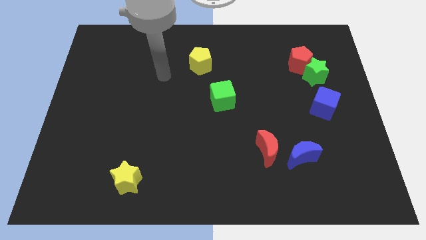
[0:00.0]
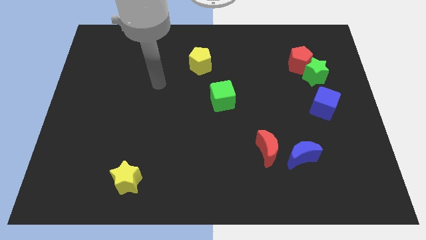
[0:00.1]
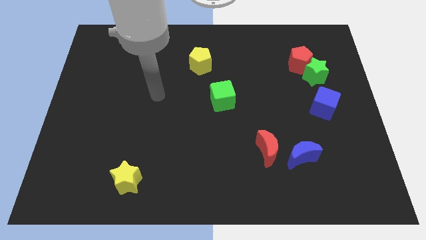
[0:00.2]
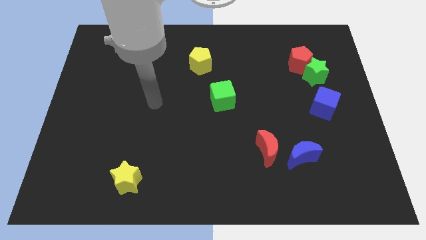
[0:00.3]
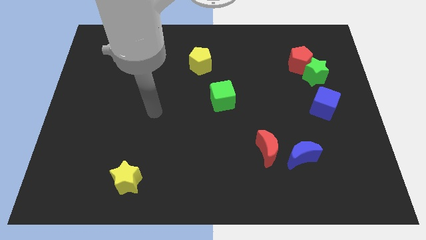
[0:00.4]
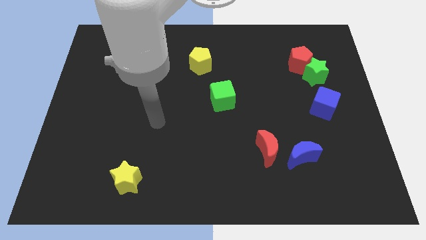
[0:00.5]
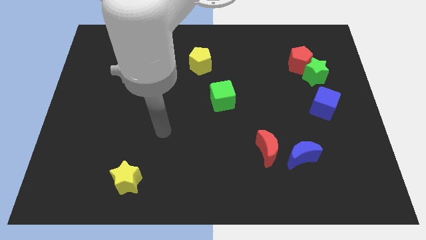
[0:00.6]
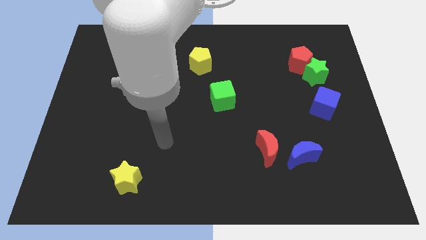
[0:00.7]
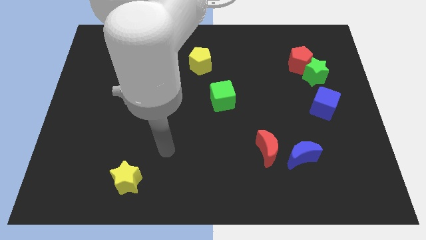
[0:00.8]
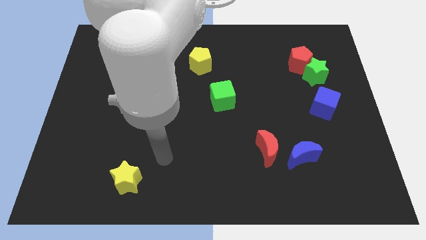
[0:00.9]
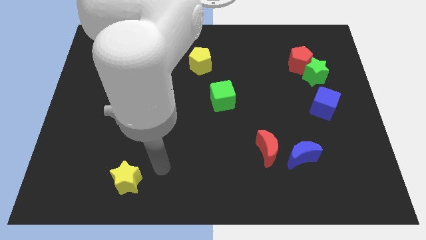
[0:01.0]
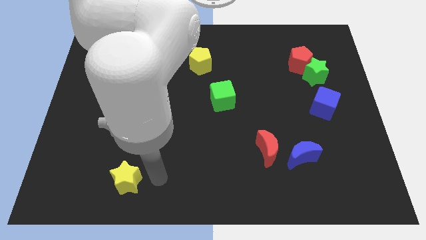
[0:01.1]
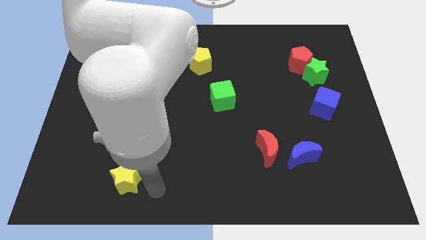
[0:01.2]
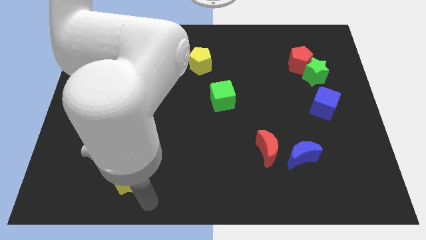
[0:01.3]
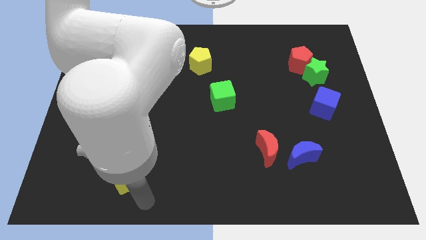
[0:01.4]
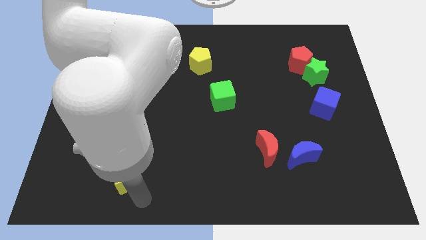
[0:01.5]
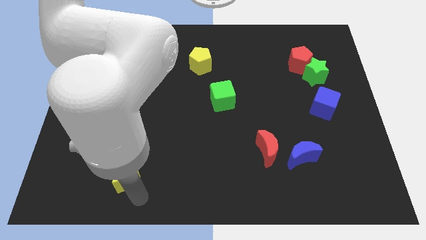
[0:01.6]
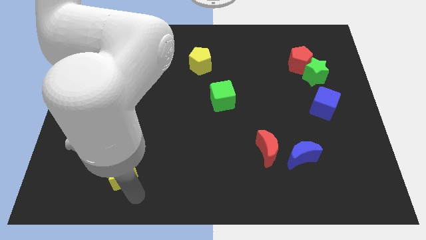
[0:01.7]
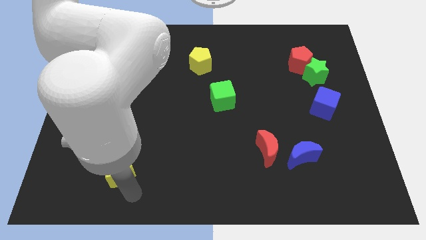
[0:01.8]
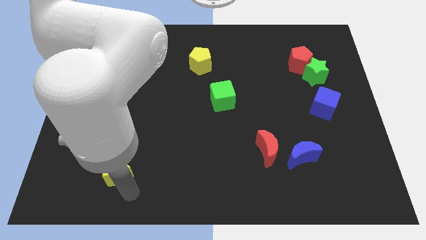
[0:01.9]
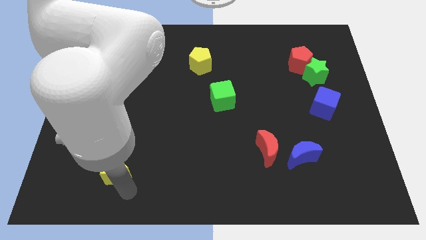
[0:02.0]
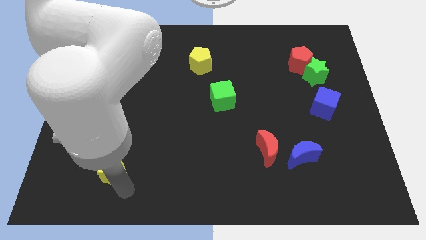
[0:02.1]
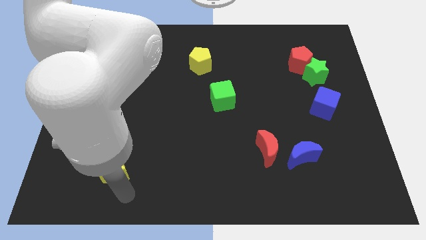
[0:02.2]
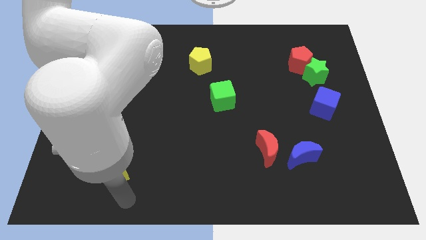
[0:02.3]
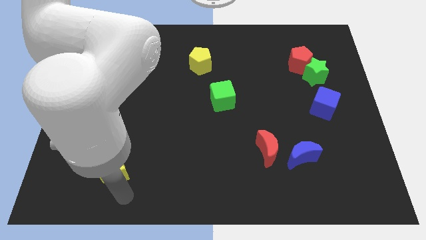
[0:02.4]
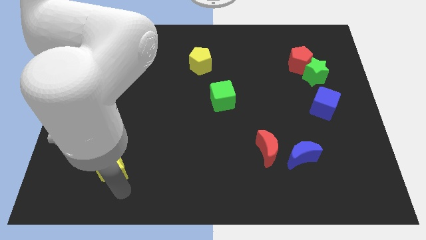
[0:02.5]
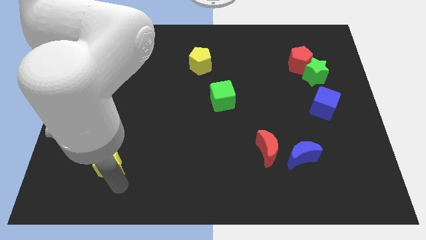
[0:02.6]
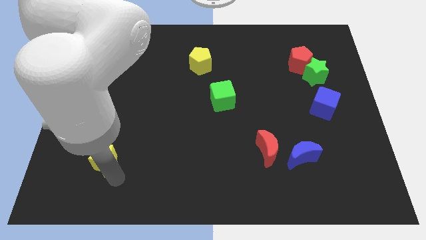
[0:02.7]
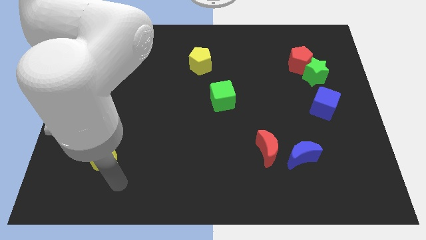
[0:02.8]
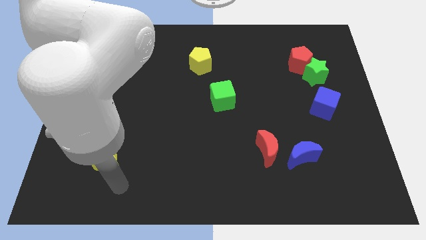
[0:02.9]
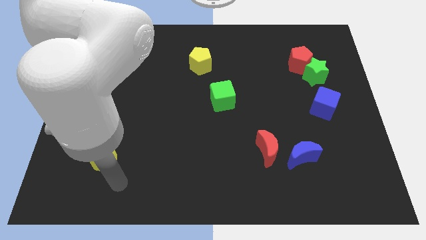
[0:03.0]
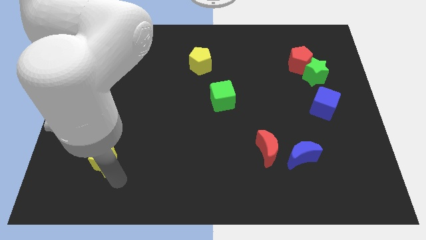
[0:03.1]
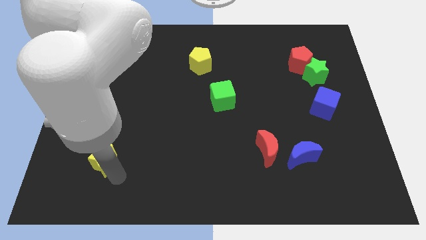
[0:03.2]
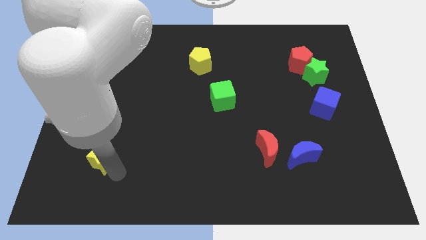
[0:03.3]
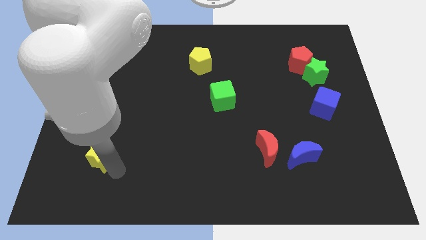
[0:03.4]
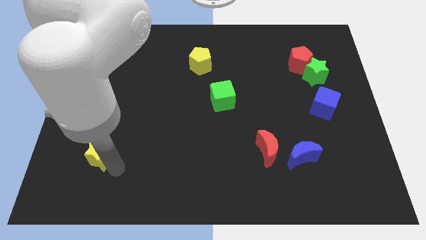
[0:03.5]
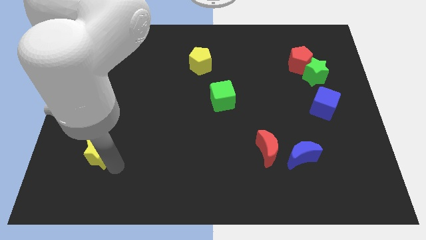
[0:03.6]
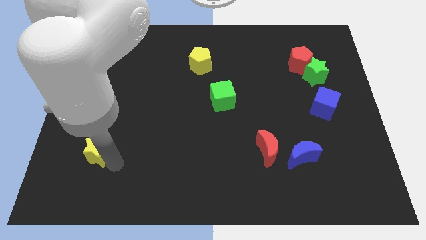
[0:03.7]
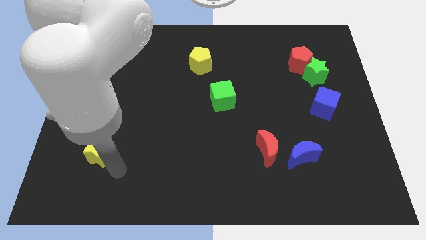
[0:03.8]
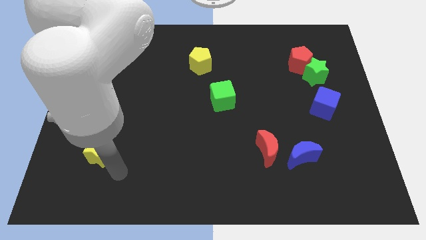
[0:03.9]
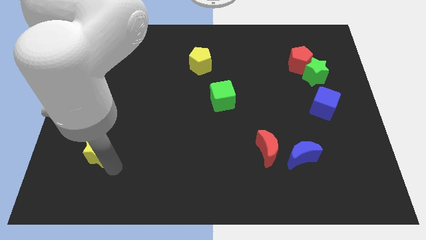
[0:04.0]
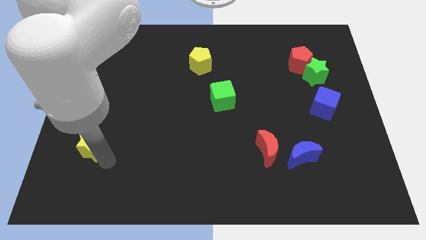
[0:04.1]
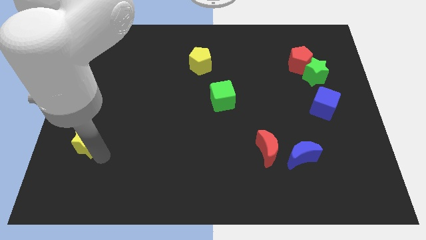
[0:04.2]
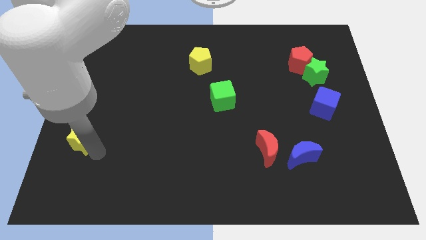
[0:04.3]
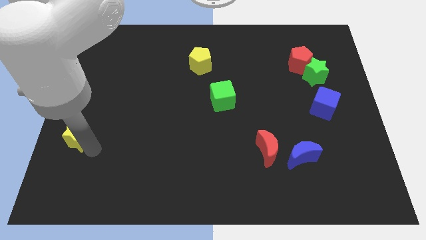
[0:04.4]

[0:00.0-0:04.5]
slide the yellow star to the left side

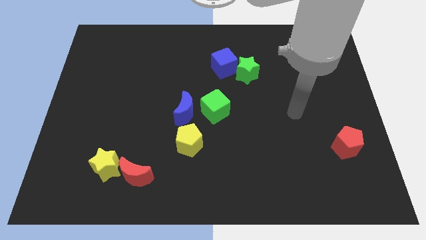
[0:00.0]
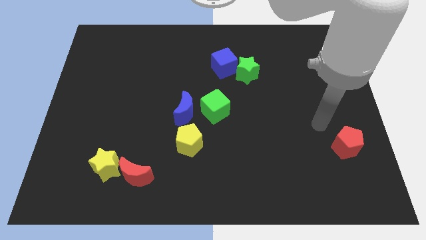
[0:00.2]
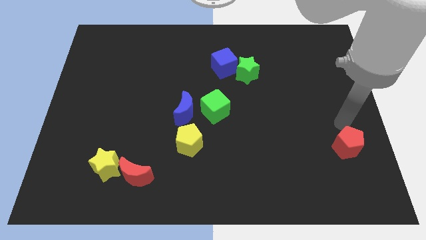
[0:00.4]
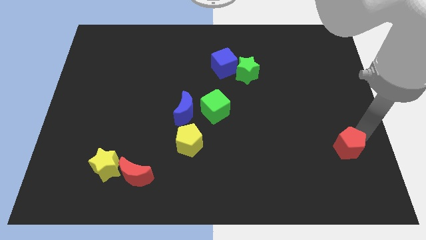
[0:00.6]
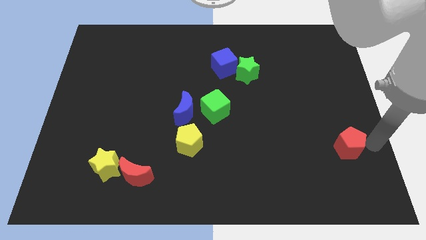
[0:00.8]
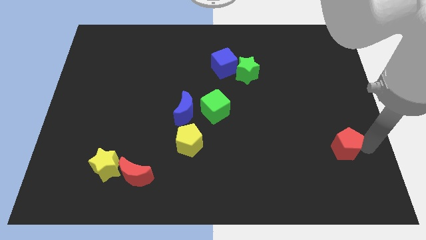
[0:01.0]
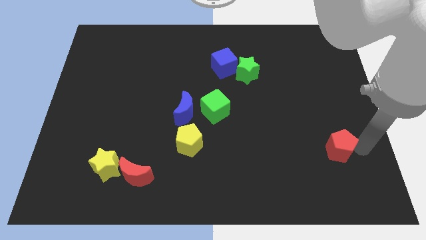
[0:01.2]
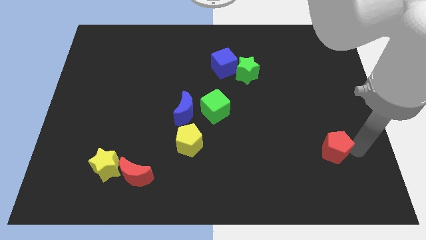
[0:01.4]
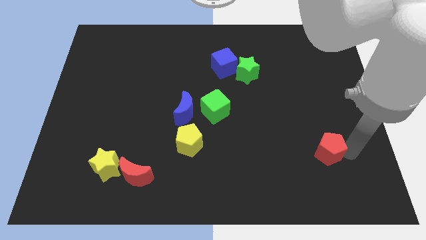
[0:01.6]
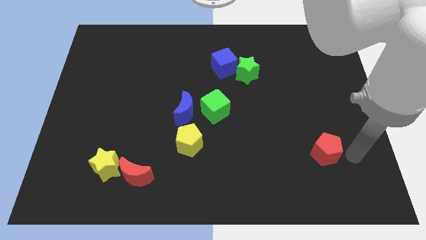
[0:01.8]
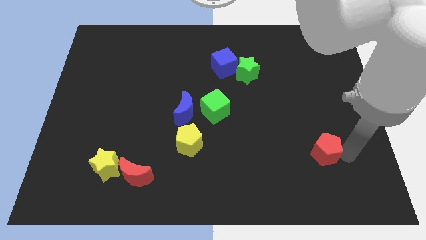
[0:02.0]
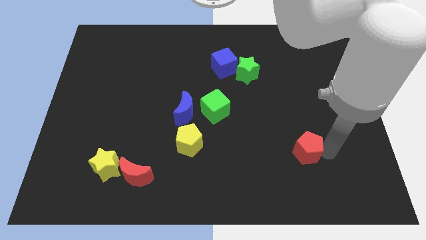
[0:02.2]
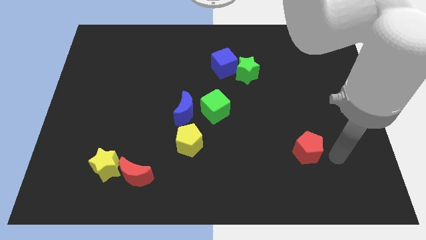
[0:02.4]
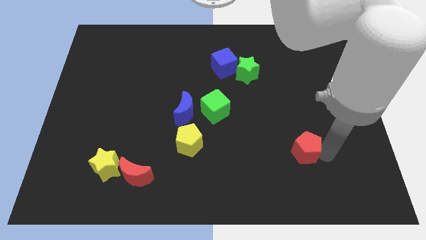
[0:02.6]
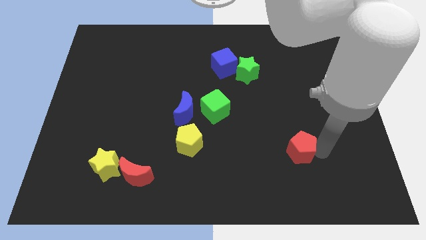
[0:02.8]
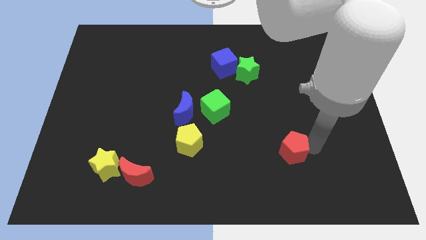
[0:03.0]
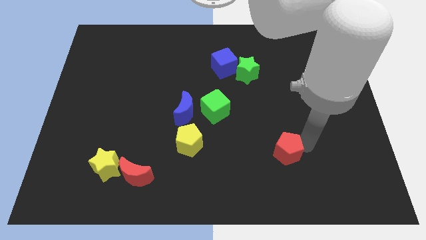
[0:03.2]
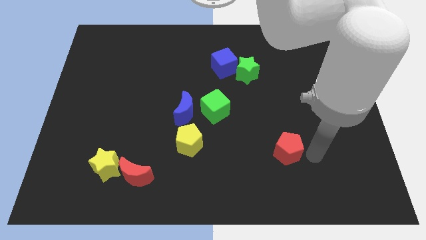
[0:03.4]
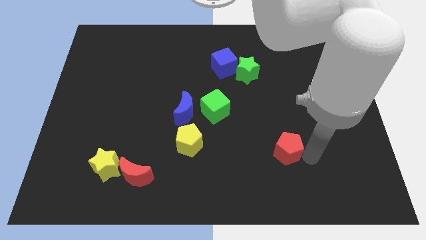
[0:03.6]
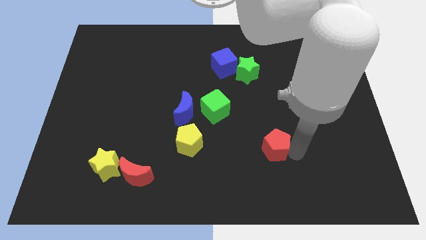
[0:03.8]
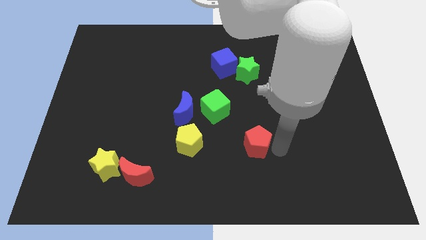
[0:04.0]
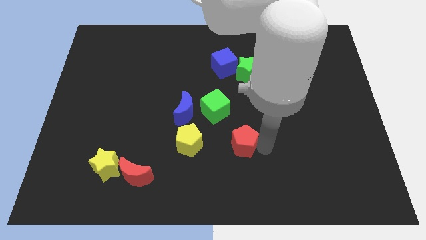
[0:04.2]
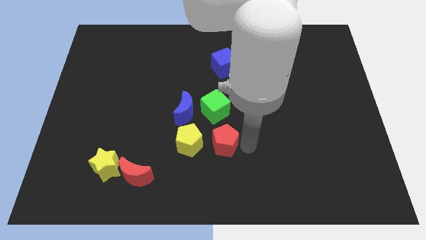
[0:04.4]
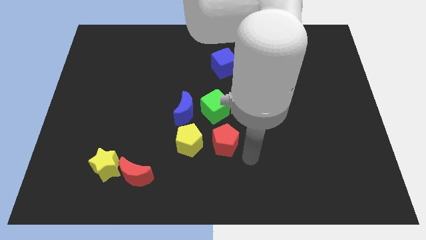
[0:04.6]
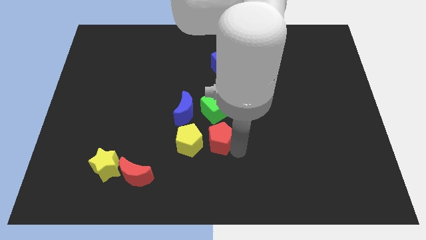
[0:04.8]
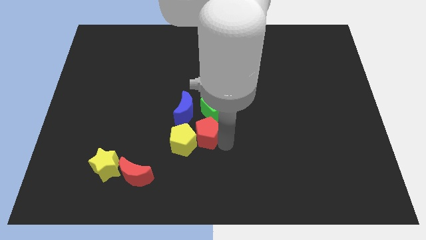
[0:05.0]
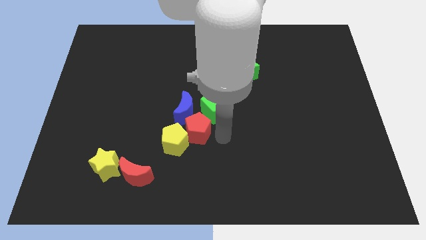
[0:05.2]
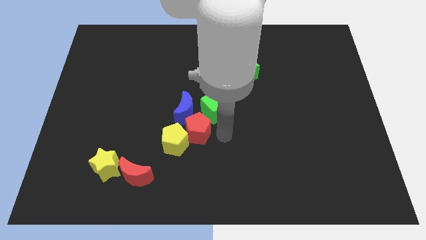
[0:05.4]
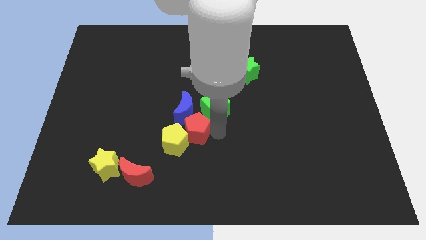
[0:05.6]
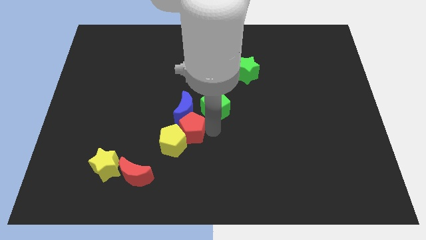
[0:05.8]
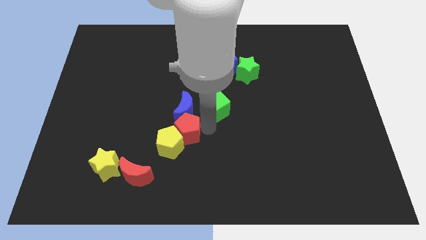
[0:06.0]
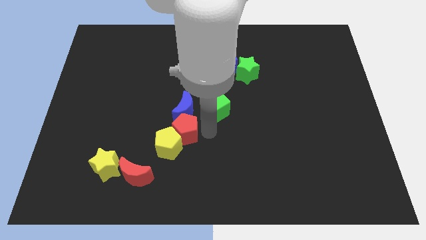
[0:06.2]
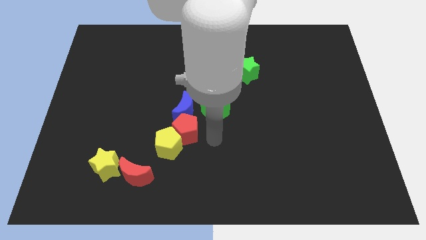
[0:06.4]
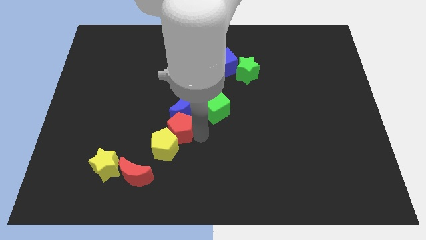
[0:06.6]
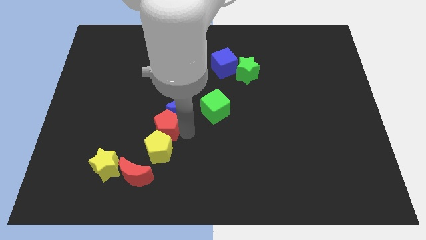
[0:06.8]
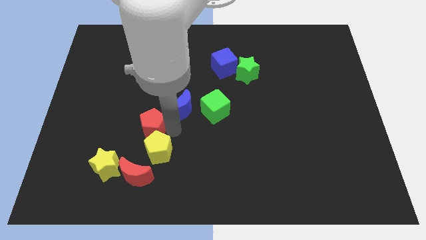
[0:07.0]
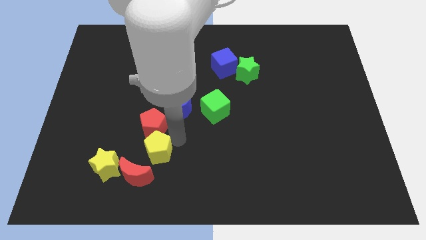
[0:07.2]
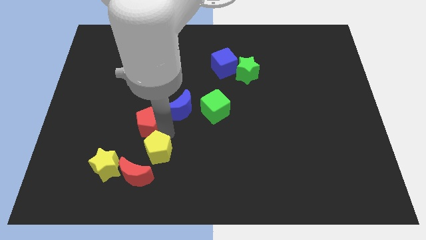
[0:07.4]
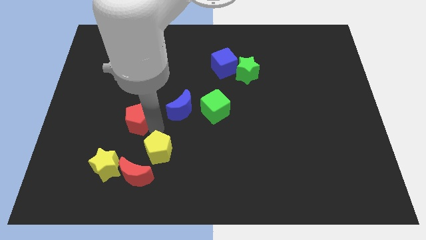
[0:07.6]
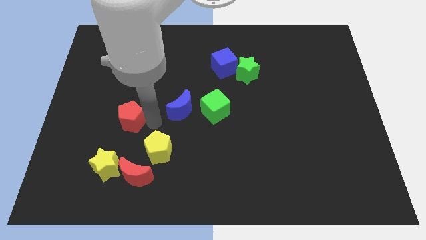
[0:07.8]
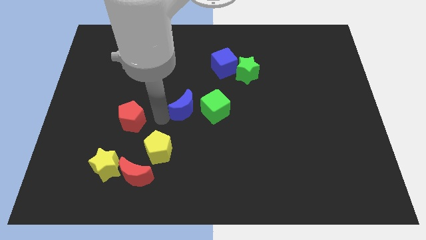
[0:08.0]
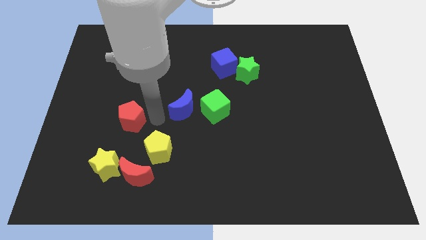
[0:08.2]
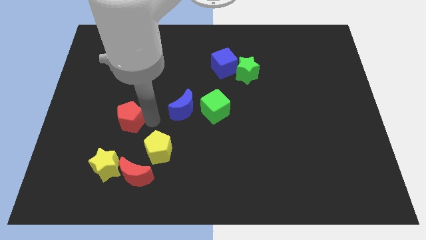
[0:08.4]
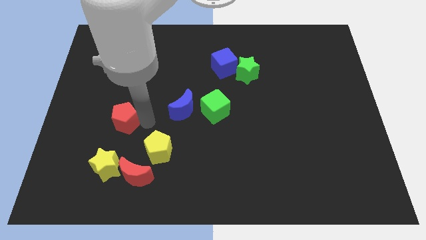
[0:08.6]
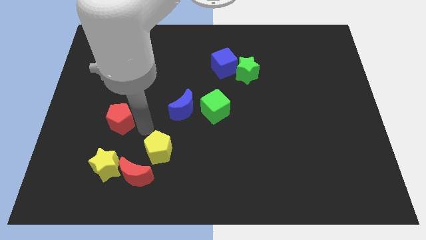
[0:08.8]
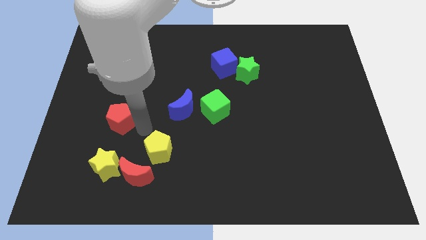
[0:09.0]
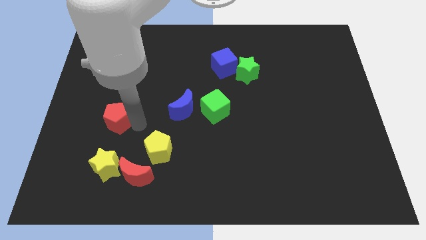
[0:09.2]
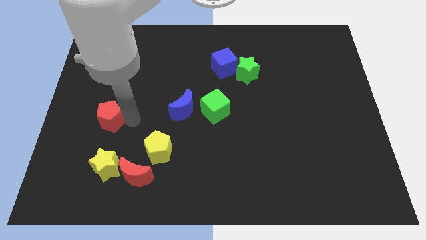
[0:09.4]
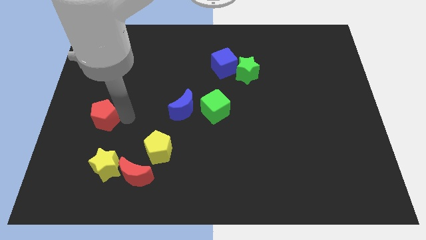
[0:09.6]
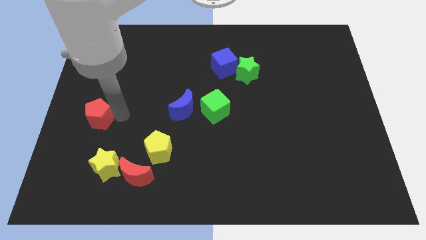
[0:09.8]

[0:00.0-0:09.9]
slide the red pentagon to the left side of the board
